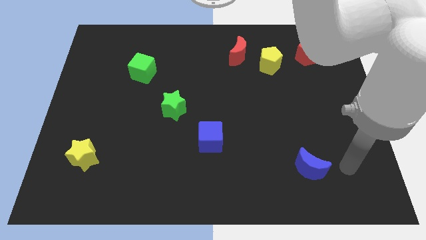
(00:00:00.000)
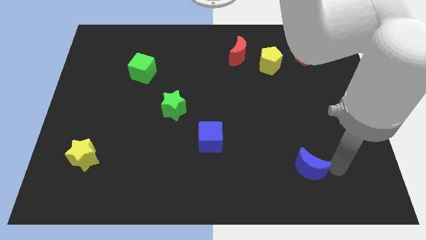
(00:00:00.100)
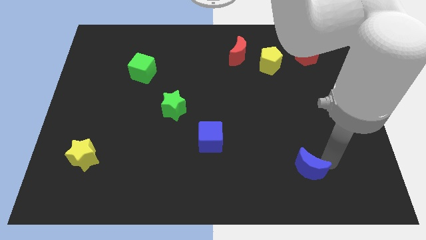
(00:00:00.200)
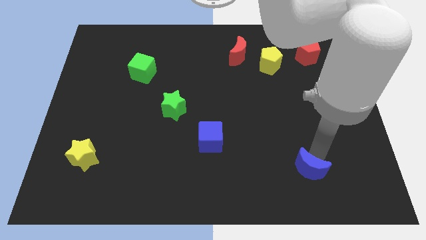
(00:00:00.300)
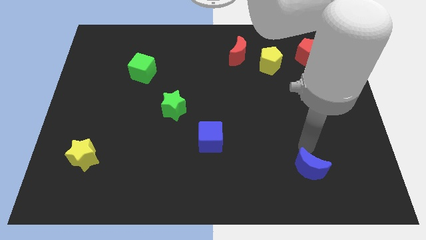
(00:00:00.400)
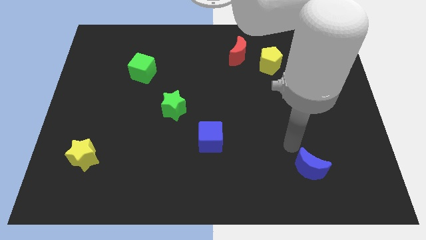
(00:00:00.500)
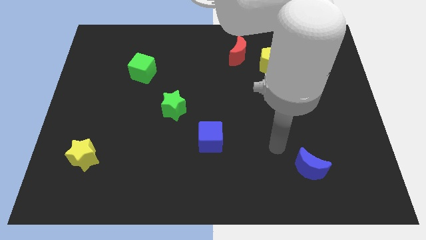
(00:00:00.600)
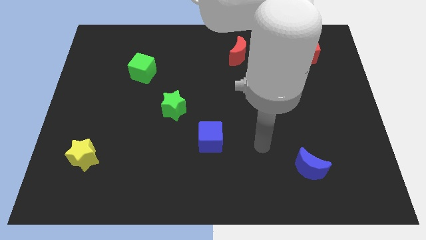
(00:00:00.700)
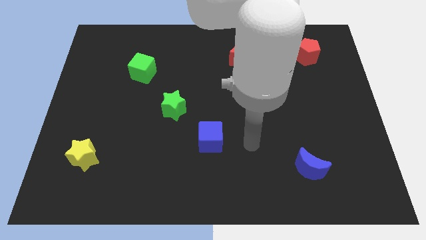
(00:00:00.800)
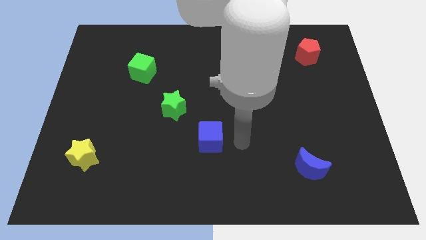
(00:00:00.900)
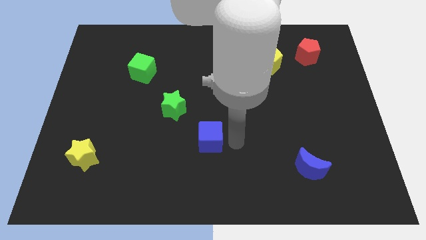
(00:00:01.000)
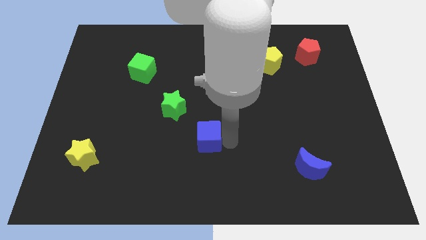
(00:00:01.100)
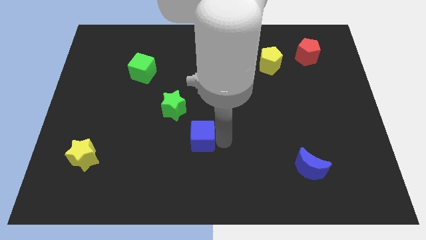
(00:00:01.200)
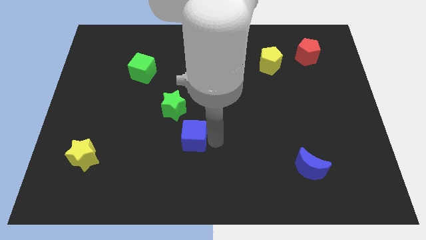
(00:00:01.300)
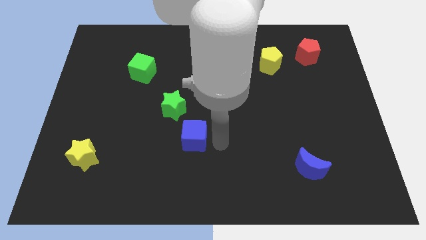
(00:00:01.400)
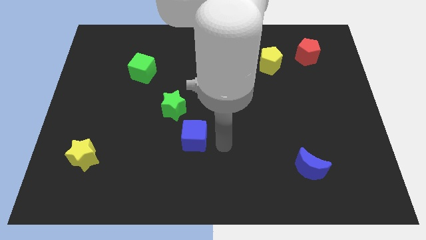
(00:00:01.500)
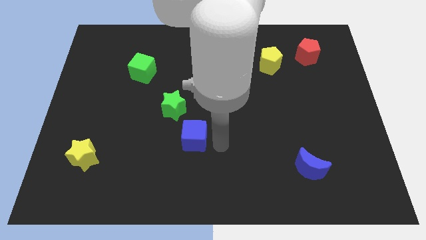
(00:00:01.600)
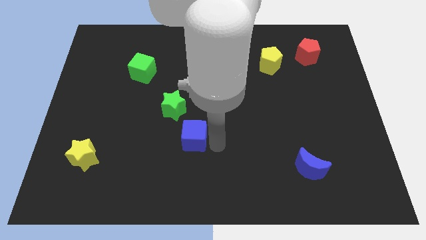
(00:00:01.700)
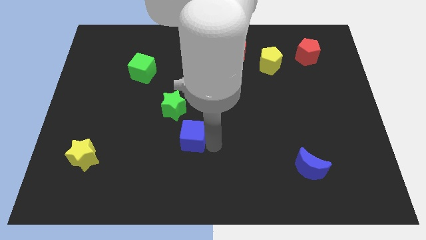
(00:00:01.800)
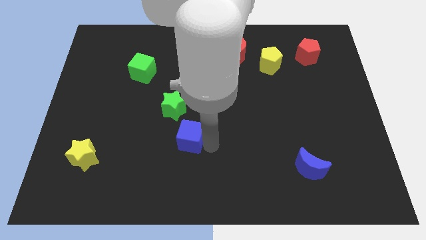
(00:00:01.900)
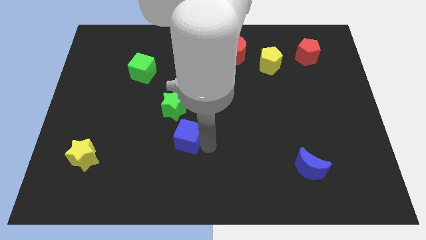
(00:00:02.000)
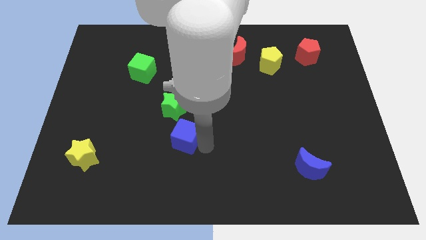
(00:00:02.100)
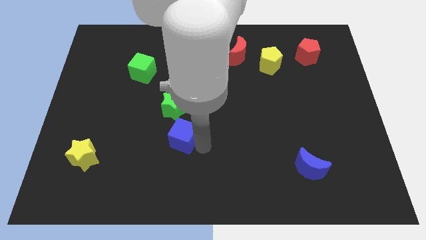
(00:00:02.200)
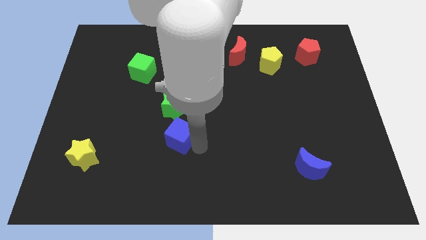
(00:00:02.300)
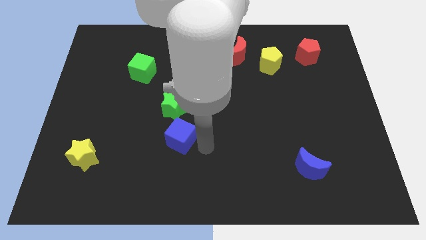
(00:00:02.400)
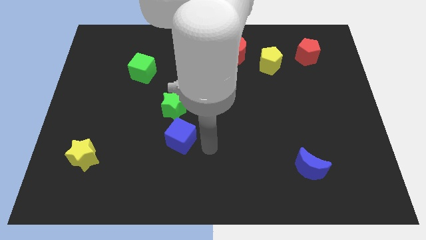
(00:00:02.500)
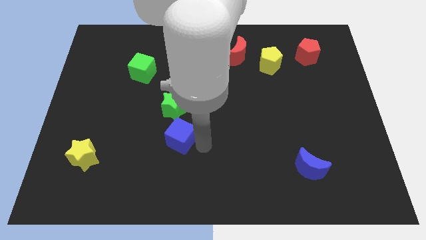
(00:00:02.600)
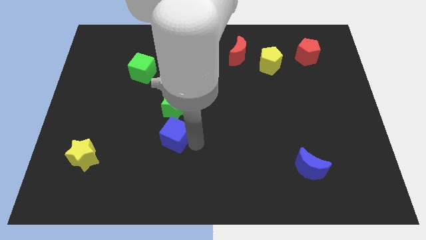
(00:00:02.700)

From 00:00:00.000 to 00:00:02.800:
slightly move the blue cube to the left

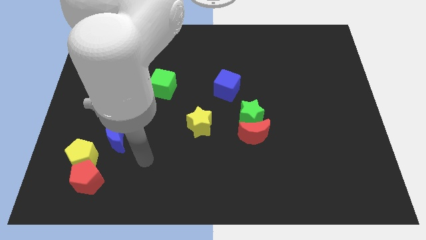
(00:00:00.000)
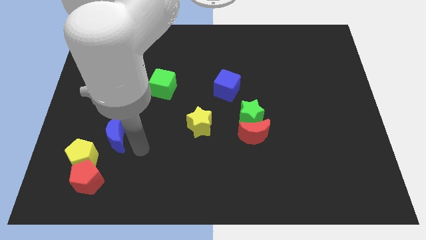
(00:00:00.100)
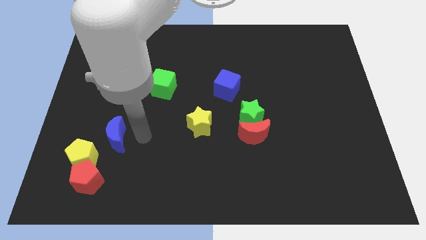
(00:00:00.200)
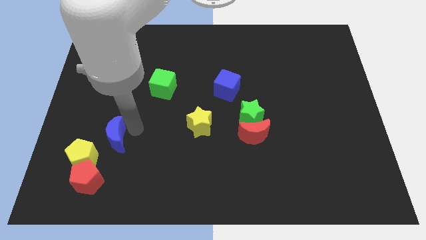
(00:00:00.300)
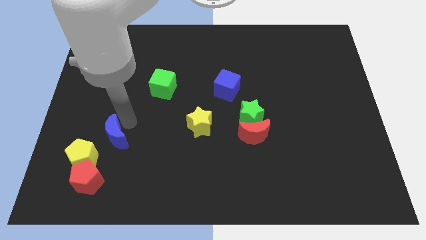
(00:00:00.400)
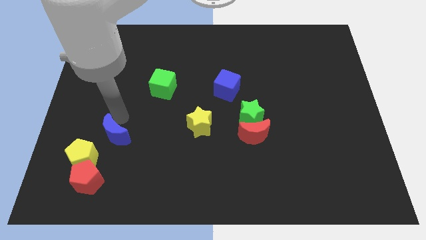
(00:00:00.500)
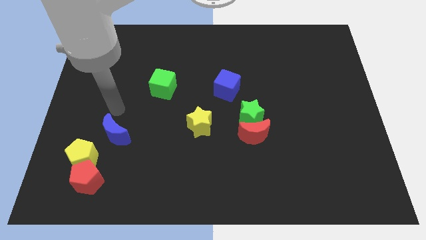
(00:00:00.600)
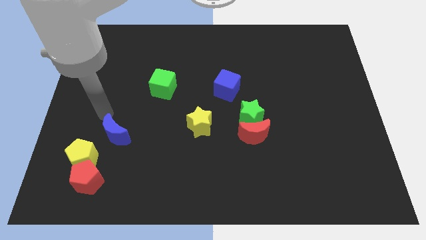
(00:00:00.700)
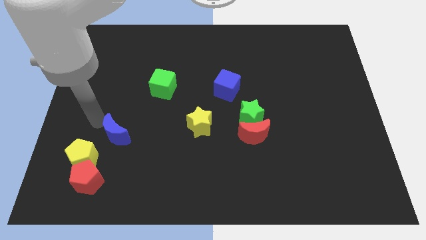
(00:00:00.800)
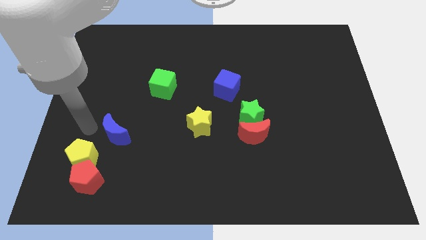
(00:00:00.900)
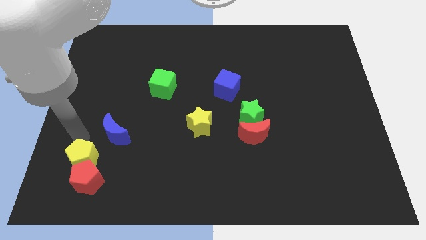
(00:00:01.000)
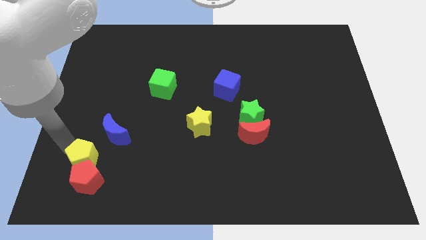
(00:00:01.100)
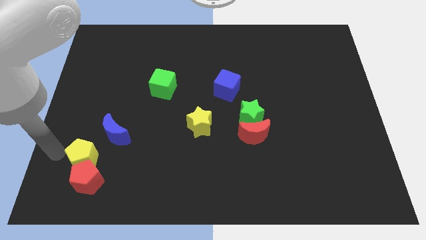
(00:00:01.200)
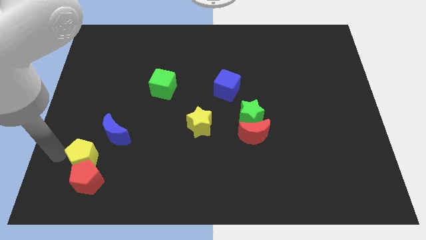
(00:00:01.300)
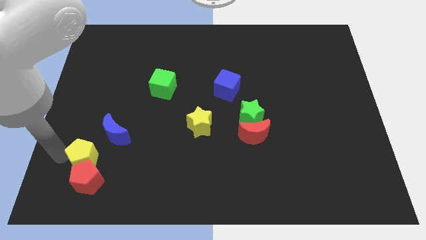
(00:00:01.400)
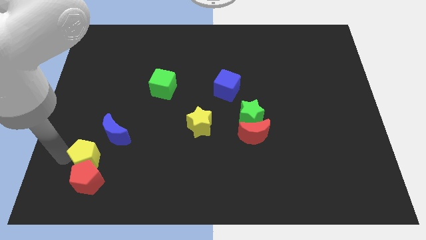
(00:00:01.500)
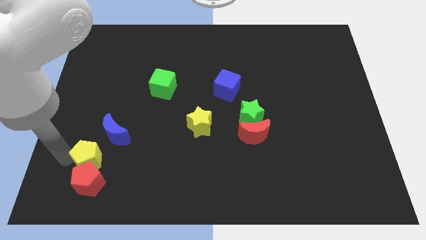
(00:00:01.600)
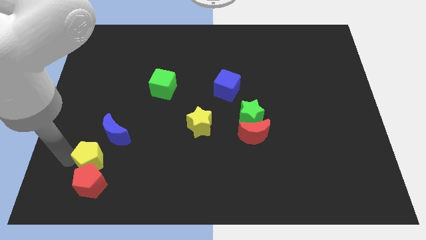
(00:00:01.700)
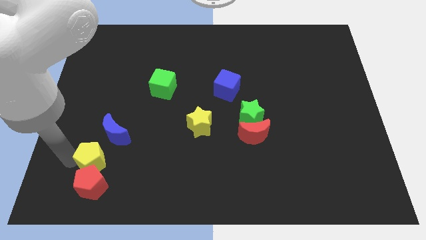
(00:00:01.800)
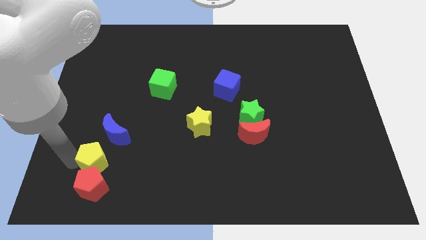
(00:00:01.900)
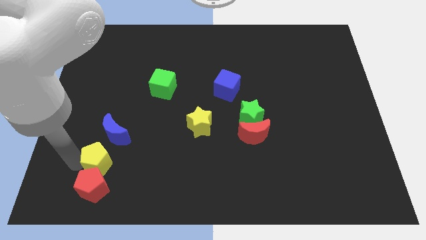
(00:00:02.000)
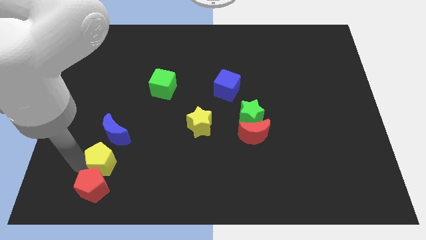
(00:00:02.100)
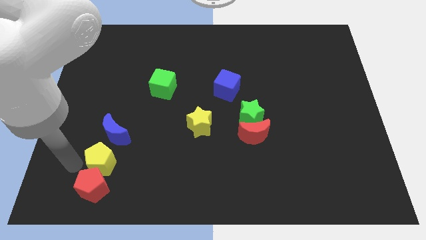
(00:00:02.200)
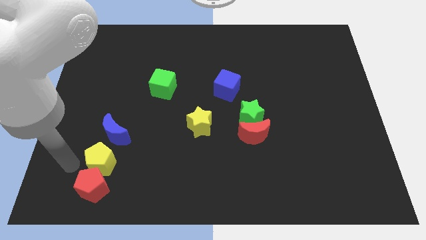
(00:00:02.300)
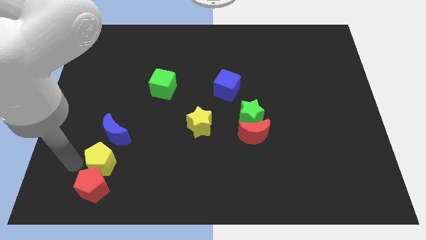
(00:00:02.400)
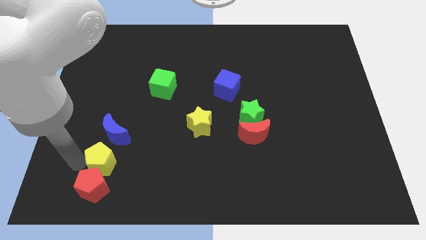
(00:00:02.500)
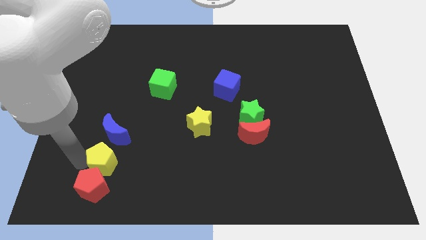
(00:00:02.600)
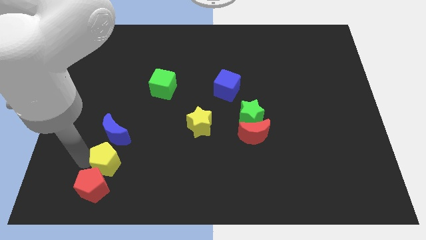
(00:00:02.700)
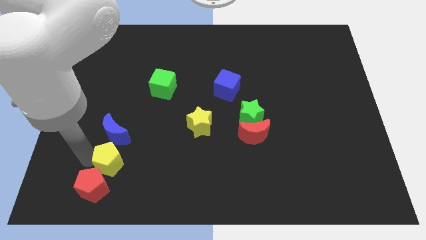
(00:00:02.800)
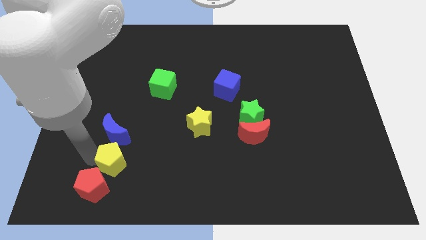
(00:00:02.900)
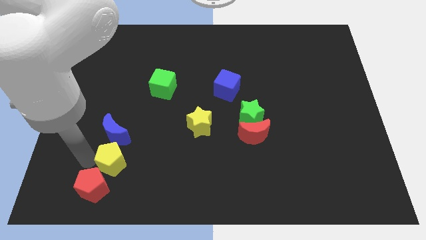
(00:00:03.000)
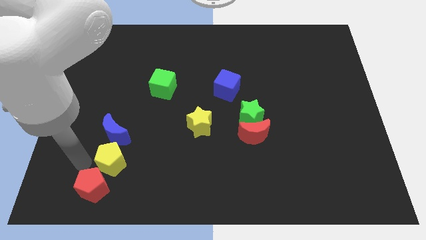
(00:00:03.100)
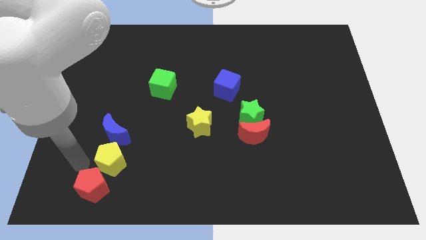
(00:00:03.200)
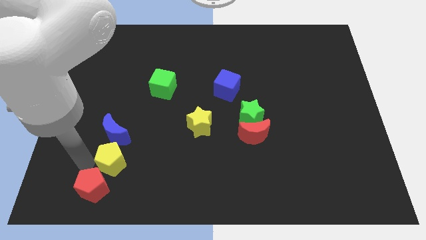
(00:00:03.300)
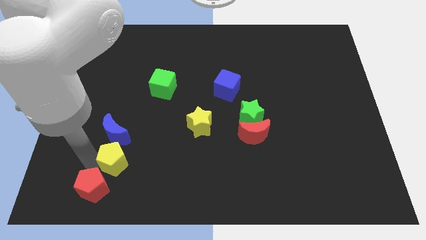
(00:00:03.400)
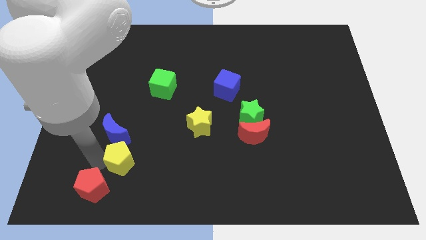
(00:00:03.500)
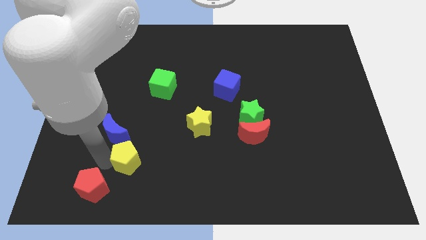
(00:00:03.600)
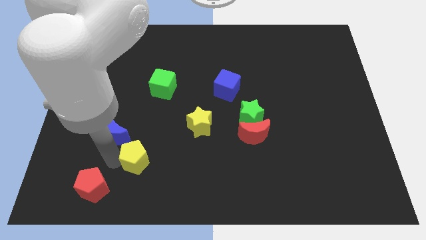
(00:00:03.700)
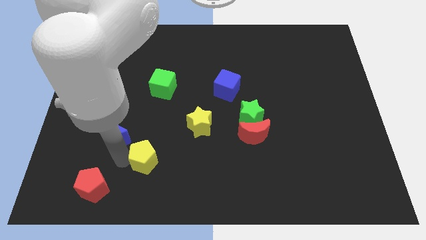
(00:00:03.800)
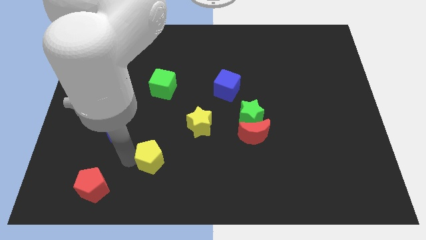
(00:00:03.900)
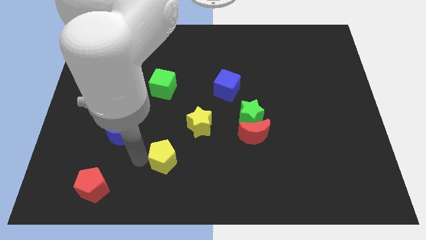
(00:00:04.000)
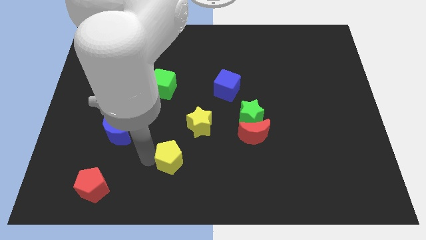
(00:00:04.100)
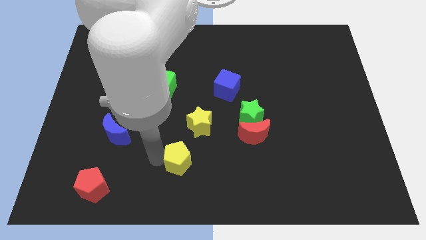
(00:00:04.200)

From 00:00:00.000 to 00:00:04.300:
push the yellow pentagon to the right

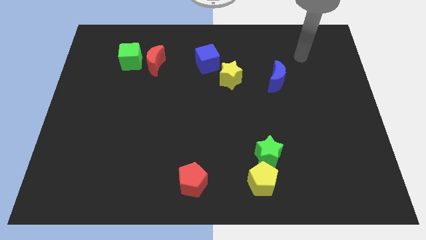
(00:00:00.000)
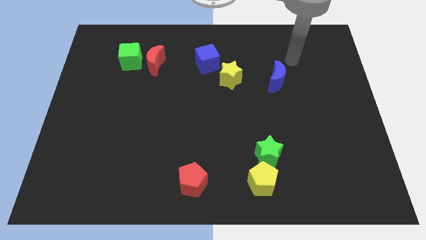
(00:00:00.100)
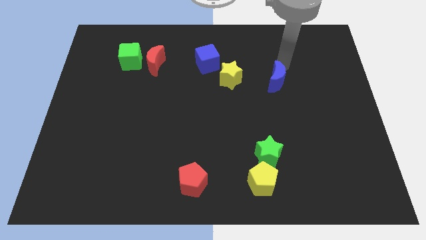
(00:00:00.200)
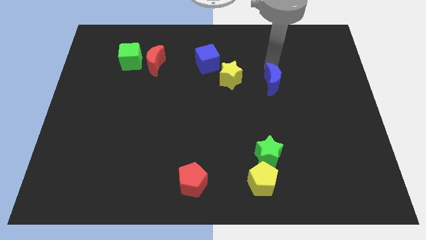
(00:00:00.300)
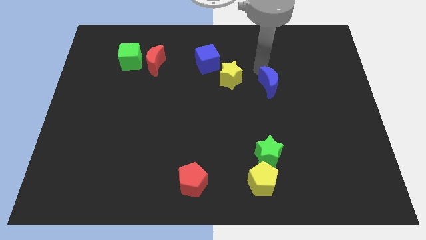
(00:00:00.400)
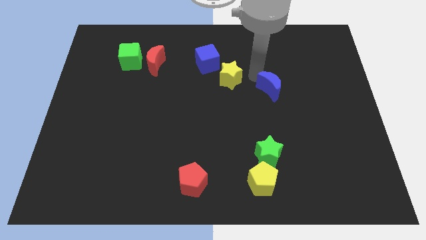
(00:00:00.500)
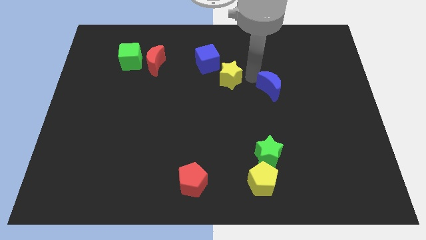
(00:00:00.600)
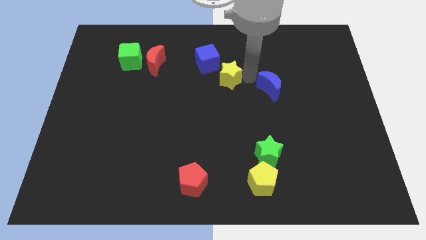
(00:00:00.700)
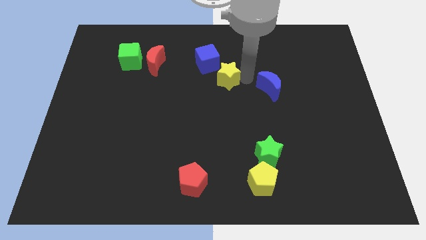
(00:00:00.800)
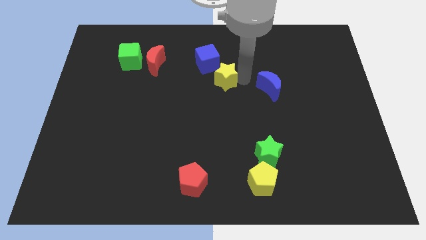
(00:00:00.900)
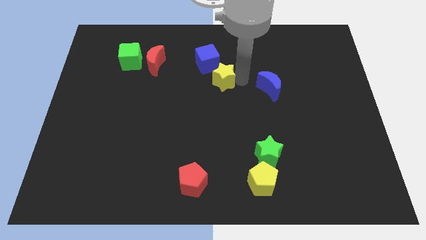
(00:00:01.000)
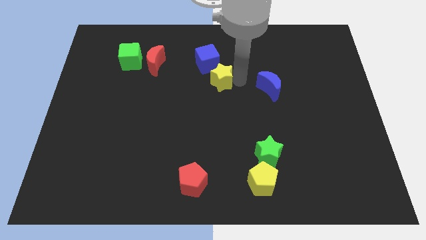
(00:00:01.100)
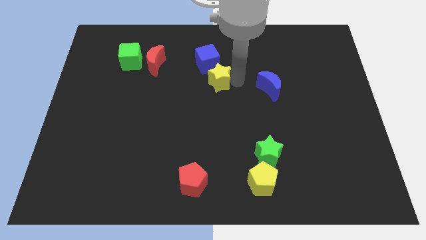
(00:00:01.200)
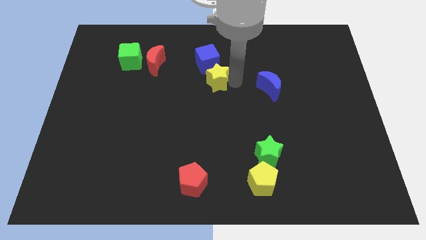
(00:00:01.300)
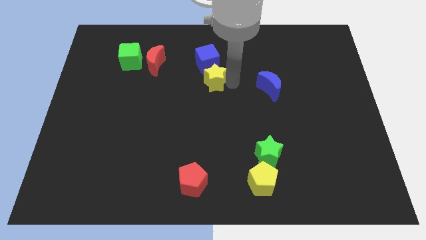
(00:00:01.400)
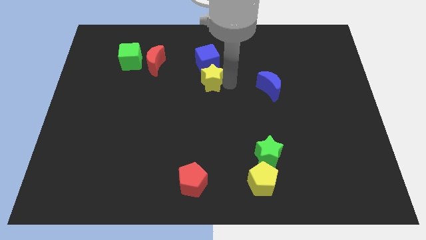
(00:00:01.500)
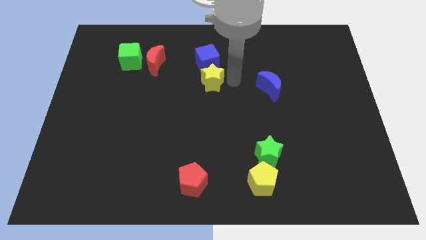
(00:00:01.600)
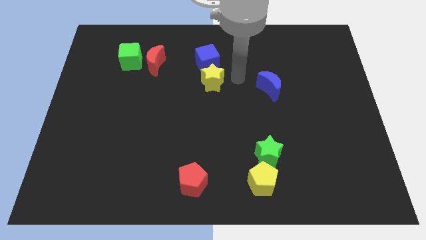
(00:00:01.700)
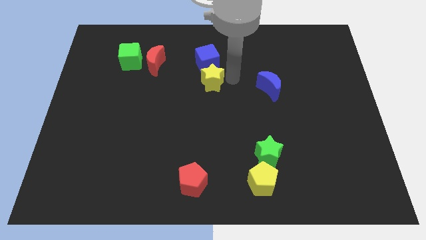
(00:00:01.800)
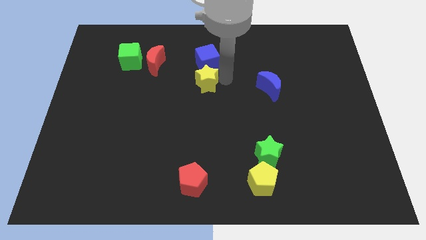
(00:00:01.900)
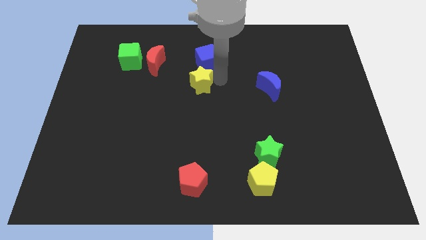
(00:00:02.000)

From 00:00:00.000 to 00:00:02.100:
move the yellow star to the left a little
